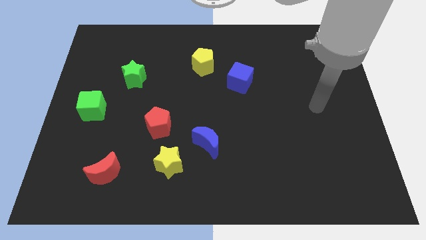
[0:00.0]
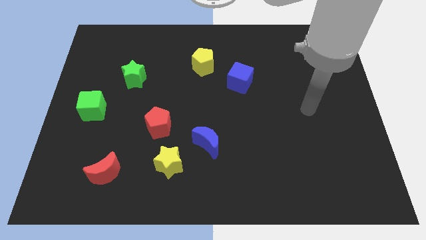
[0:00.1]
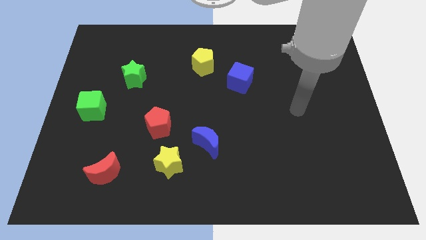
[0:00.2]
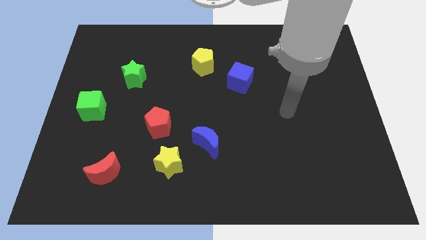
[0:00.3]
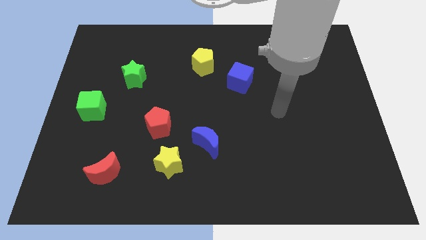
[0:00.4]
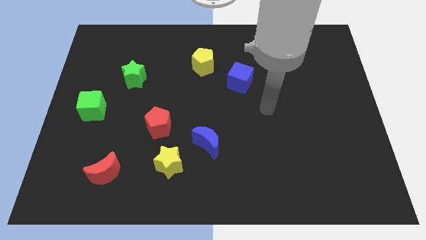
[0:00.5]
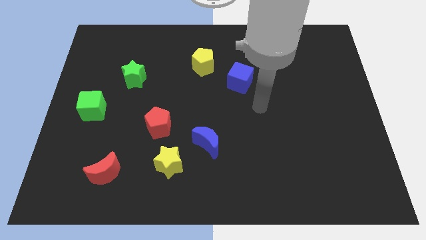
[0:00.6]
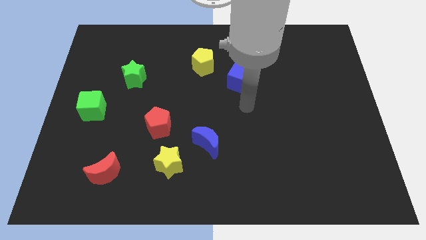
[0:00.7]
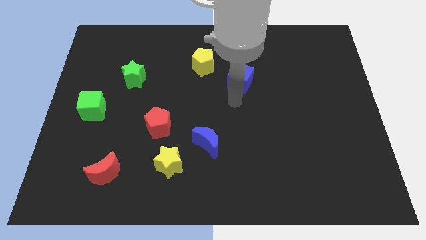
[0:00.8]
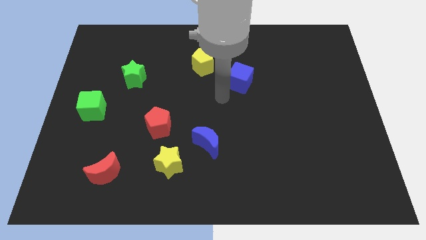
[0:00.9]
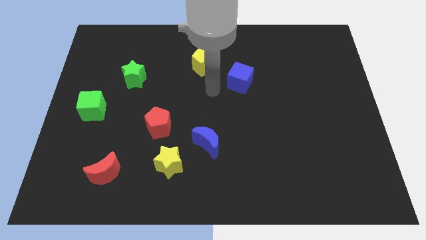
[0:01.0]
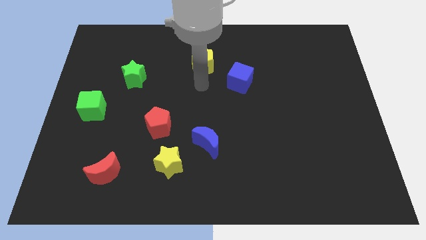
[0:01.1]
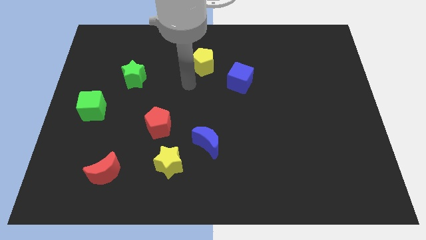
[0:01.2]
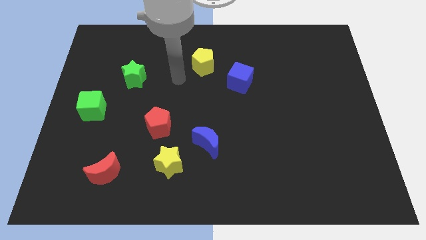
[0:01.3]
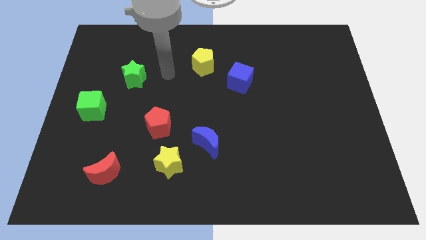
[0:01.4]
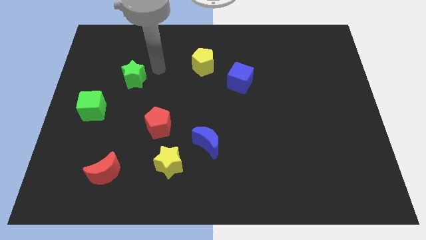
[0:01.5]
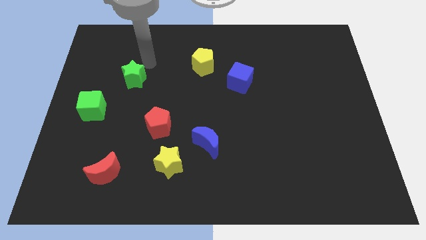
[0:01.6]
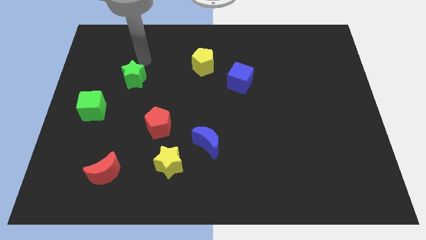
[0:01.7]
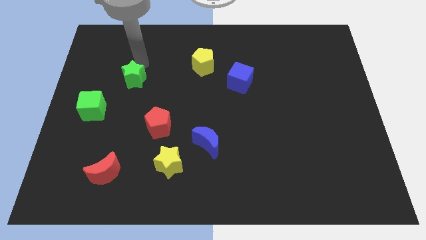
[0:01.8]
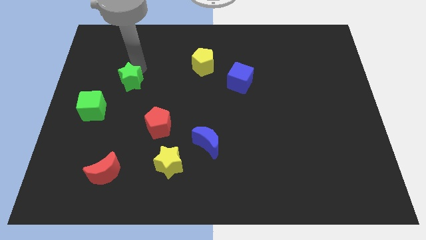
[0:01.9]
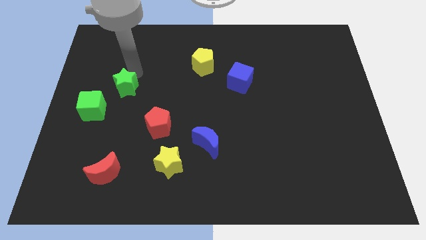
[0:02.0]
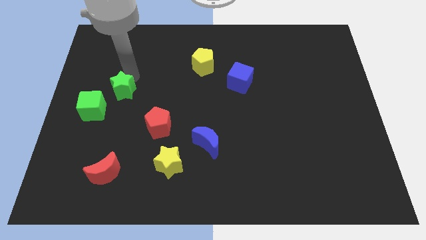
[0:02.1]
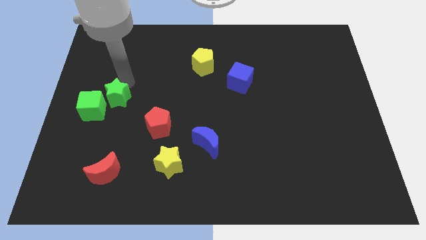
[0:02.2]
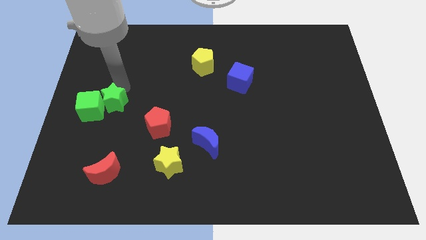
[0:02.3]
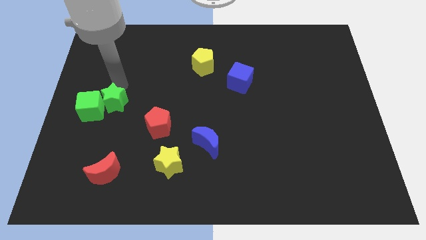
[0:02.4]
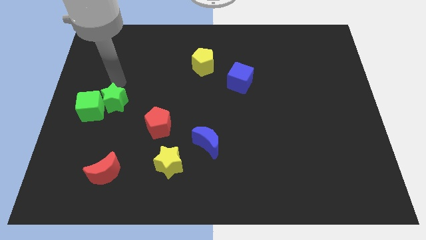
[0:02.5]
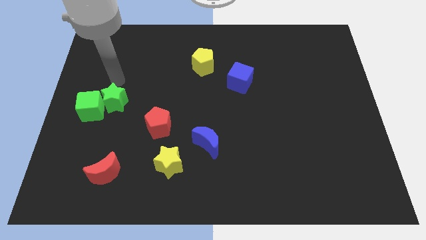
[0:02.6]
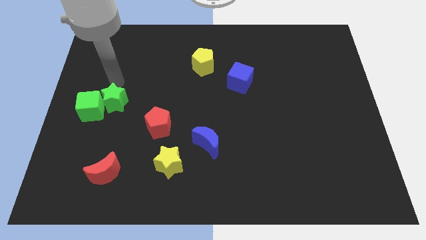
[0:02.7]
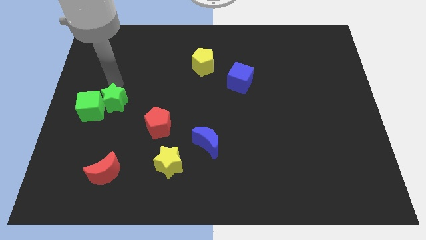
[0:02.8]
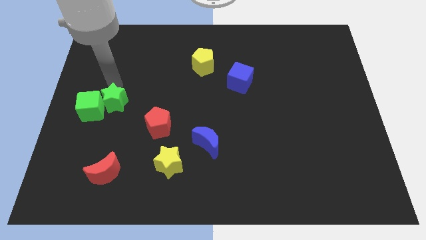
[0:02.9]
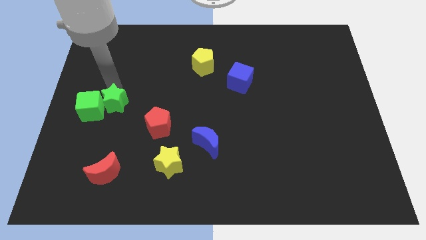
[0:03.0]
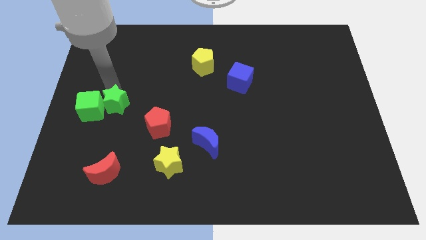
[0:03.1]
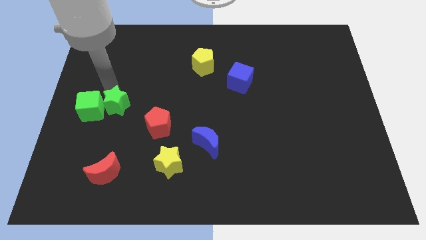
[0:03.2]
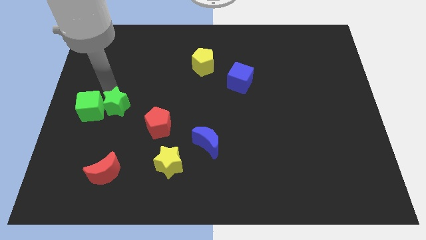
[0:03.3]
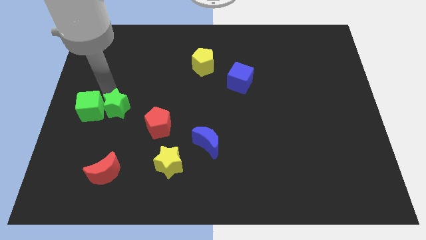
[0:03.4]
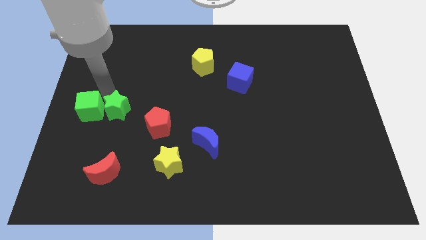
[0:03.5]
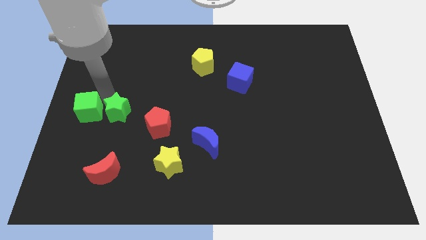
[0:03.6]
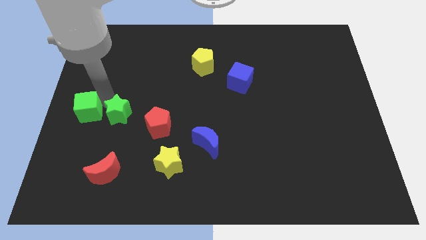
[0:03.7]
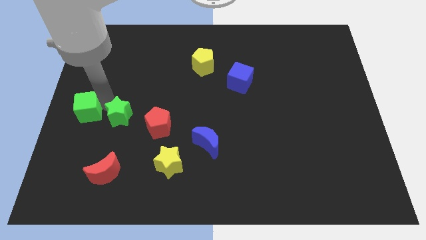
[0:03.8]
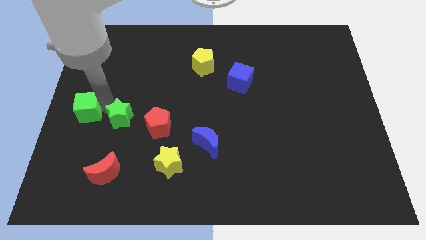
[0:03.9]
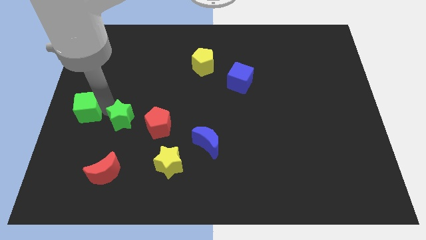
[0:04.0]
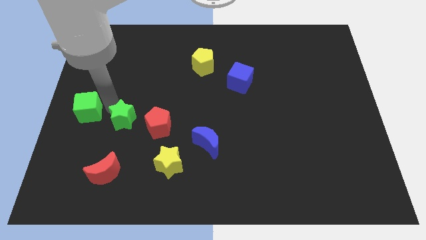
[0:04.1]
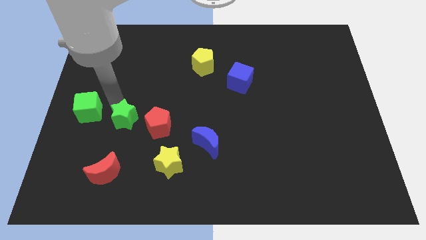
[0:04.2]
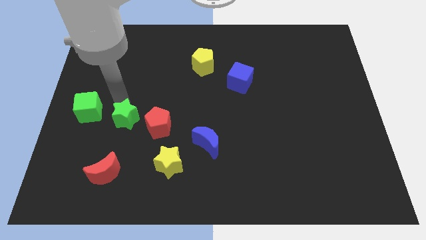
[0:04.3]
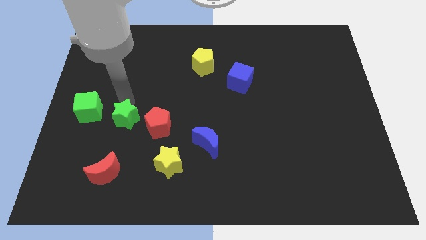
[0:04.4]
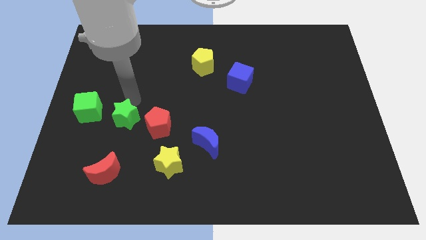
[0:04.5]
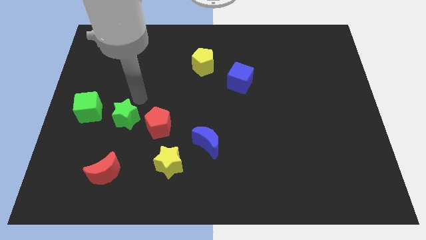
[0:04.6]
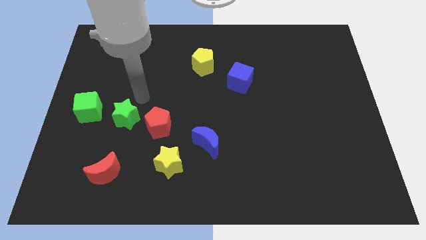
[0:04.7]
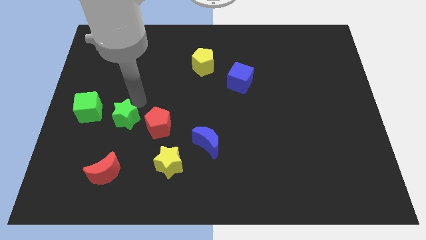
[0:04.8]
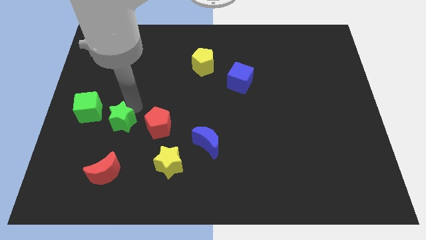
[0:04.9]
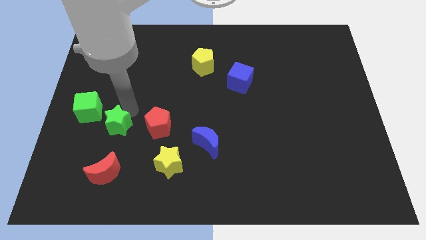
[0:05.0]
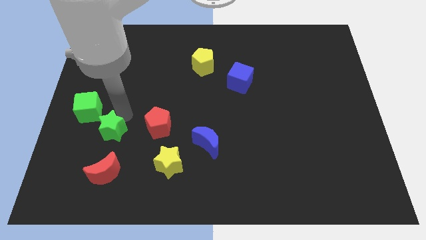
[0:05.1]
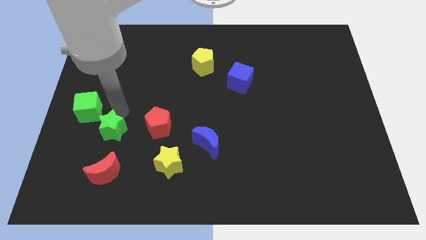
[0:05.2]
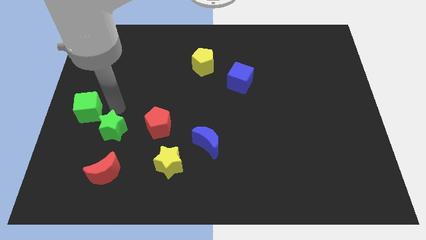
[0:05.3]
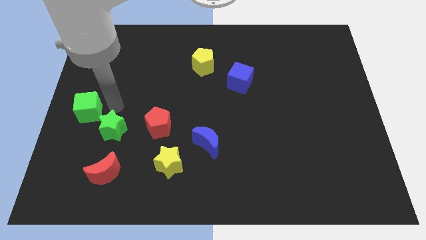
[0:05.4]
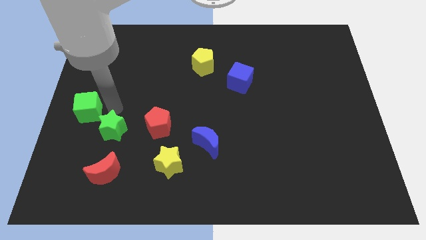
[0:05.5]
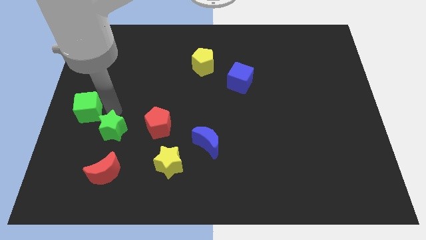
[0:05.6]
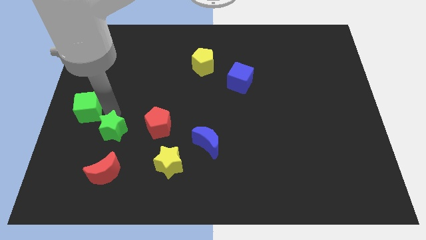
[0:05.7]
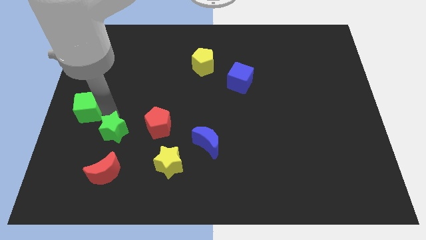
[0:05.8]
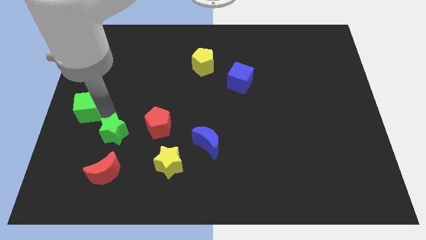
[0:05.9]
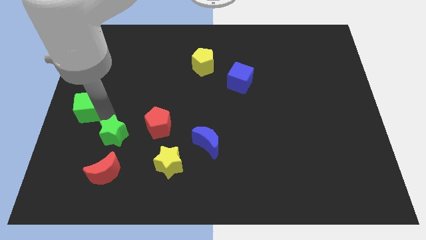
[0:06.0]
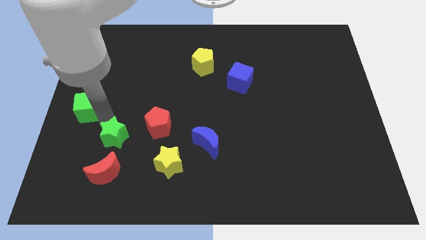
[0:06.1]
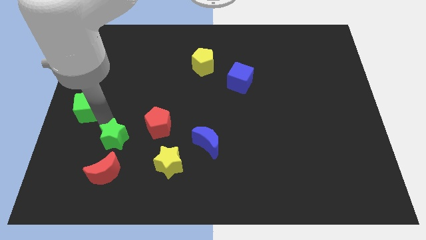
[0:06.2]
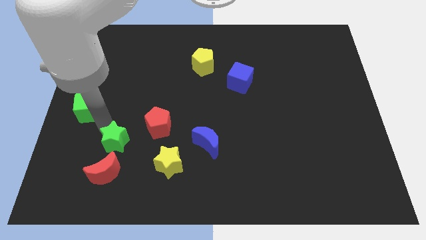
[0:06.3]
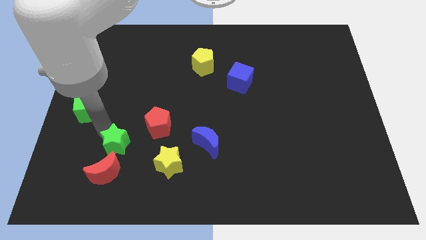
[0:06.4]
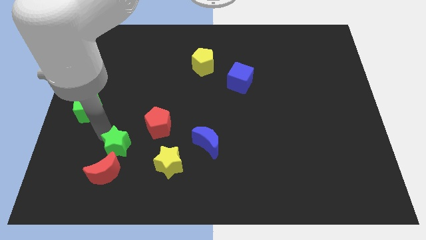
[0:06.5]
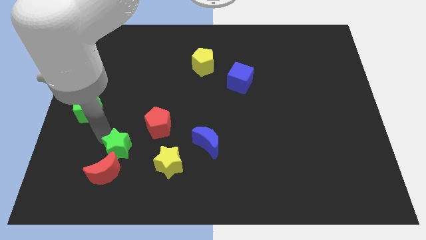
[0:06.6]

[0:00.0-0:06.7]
put the green star towards the red moon
